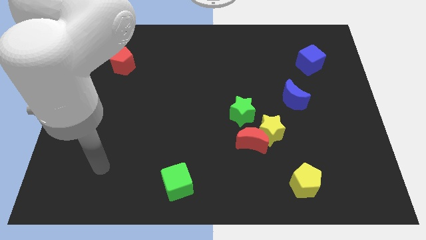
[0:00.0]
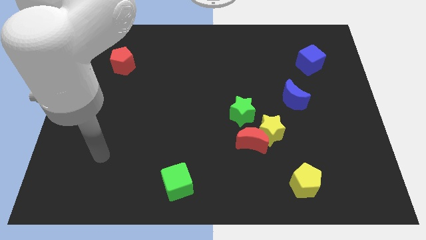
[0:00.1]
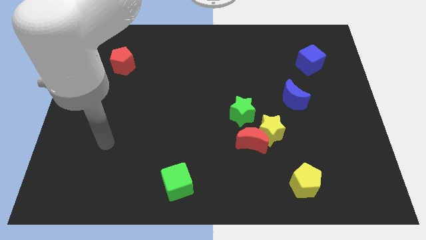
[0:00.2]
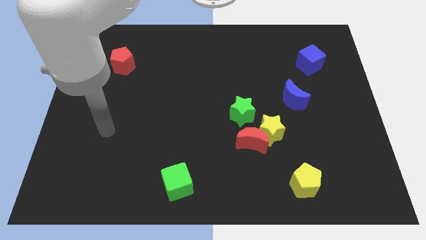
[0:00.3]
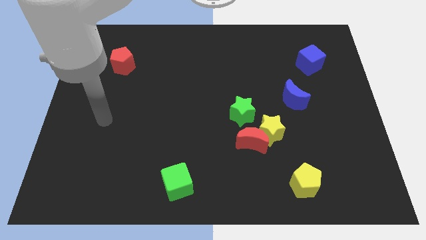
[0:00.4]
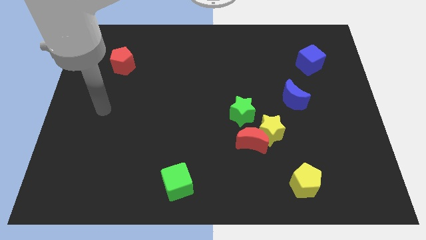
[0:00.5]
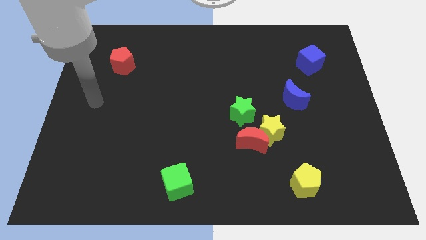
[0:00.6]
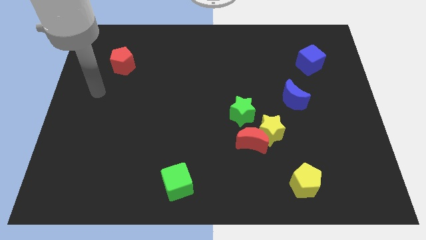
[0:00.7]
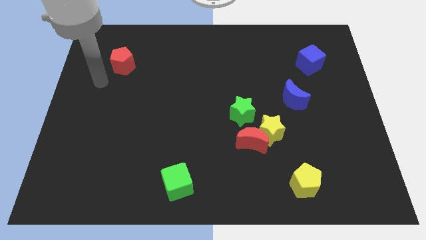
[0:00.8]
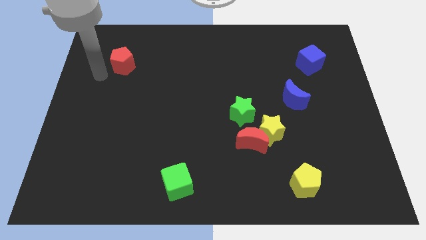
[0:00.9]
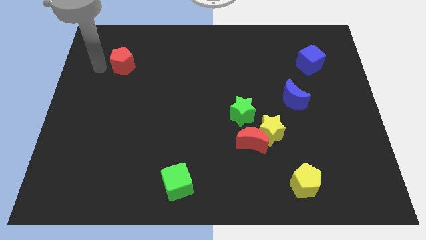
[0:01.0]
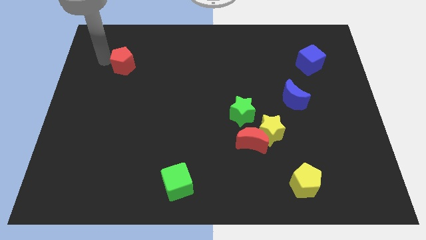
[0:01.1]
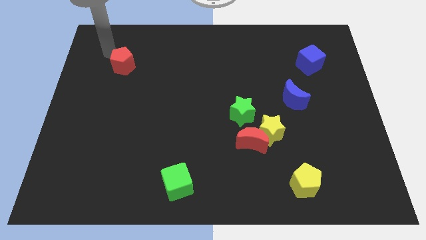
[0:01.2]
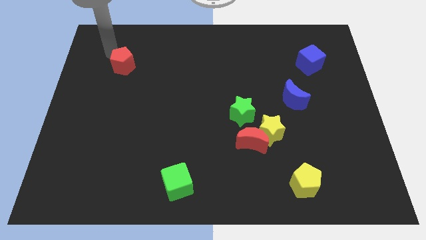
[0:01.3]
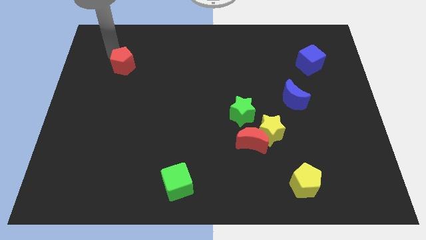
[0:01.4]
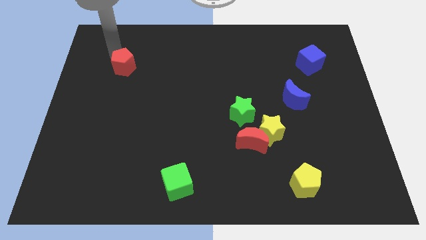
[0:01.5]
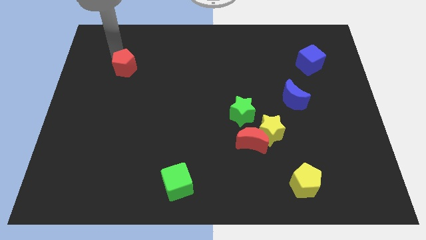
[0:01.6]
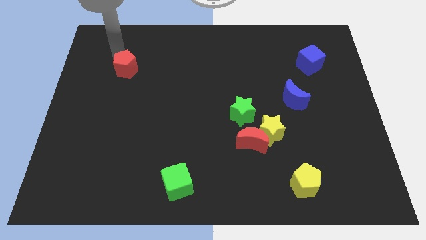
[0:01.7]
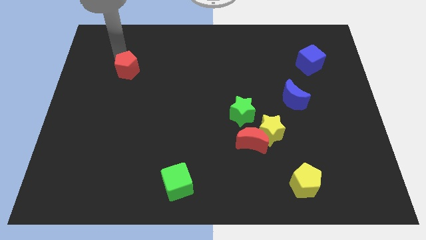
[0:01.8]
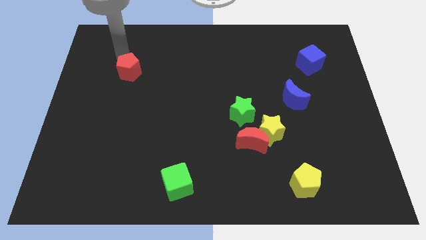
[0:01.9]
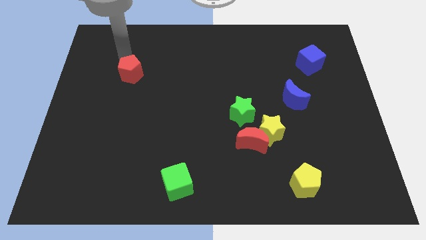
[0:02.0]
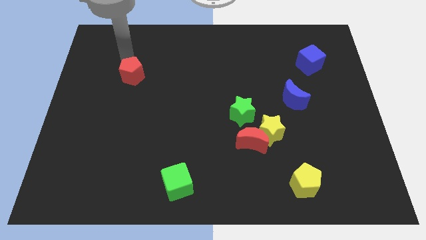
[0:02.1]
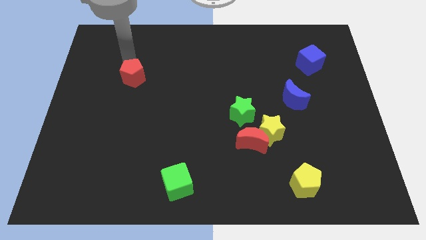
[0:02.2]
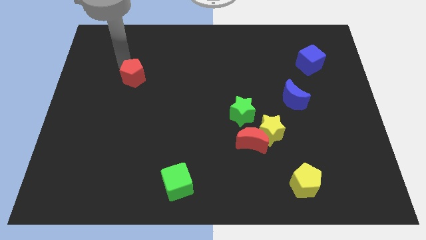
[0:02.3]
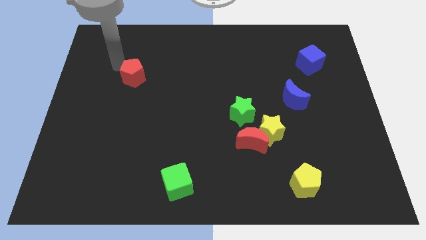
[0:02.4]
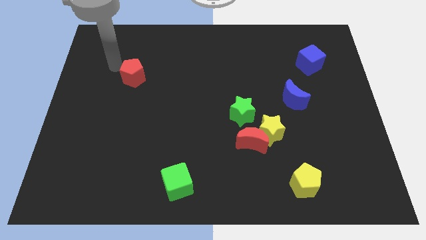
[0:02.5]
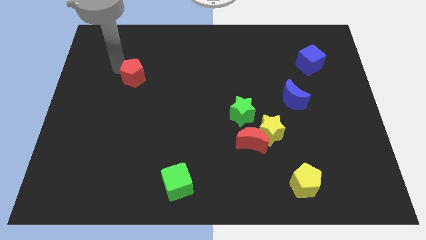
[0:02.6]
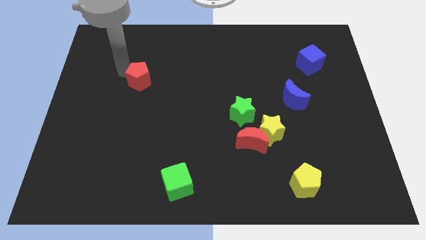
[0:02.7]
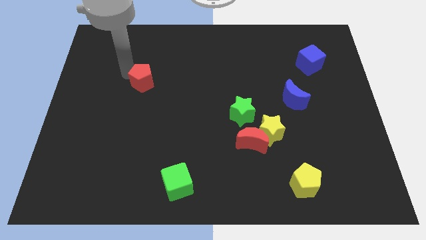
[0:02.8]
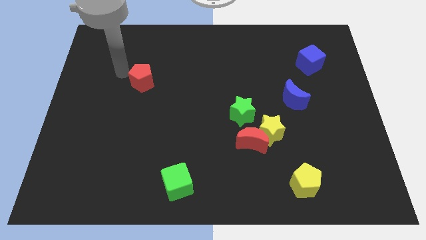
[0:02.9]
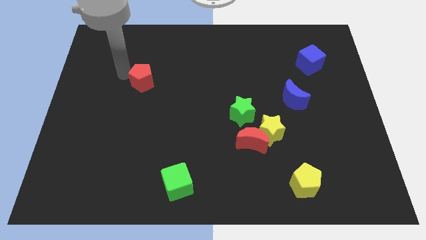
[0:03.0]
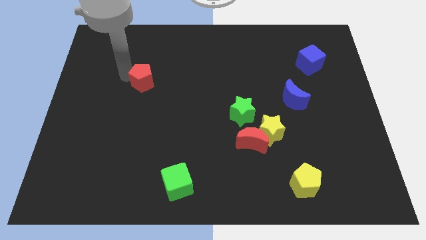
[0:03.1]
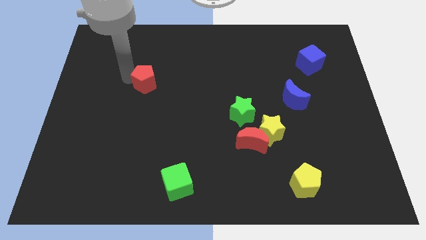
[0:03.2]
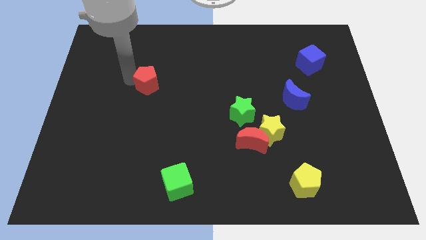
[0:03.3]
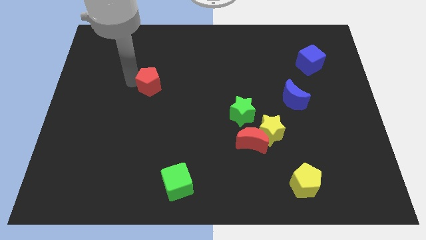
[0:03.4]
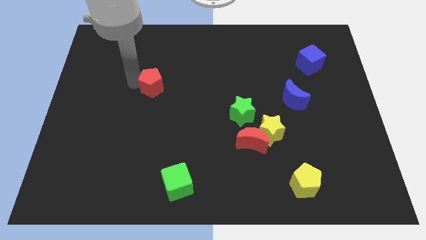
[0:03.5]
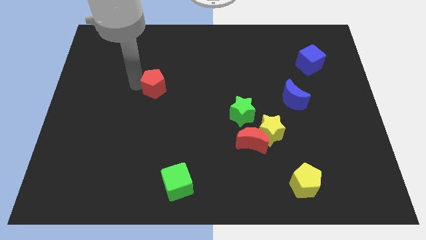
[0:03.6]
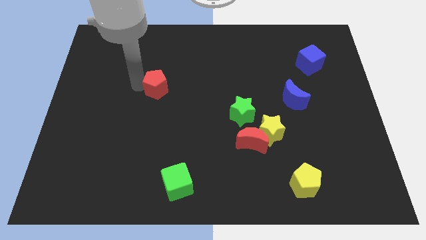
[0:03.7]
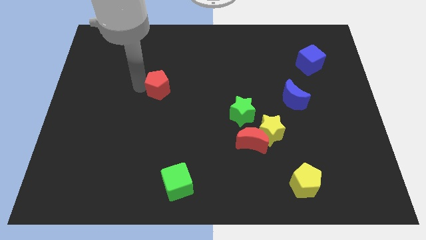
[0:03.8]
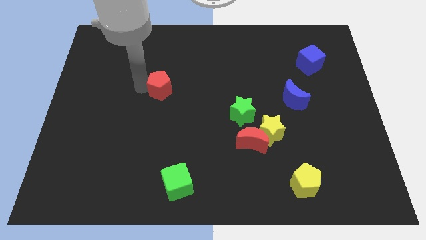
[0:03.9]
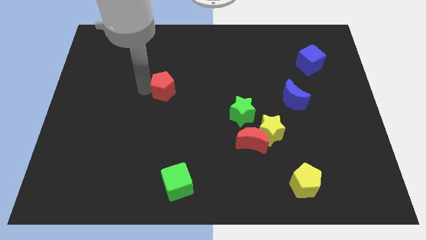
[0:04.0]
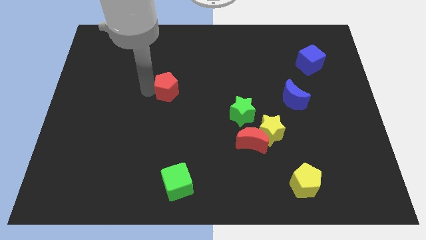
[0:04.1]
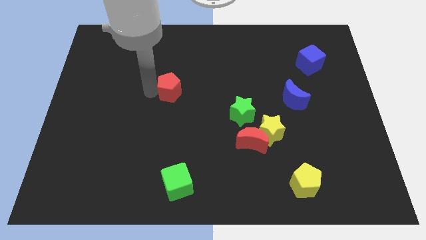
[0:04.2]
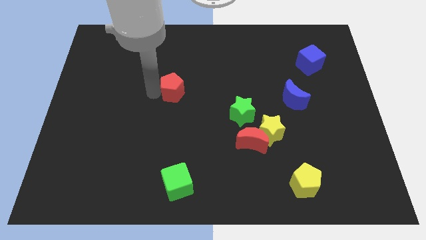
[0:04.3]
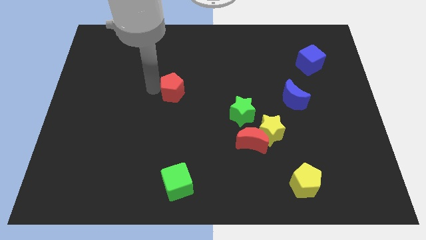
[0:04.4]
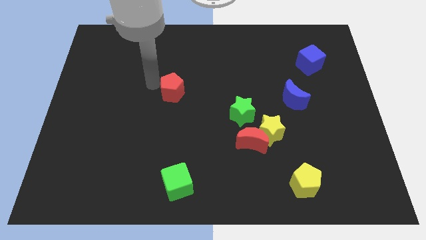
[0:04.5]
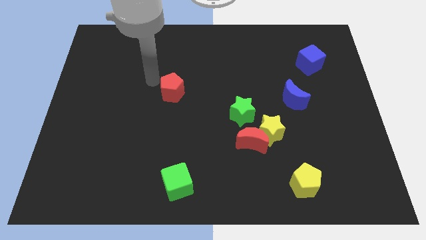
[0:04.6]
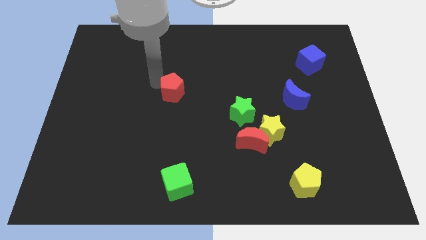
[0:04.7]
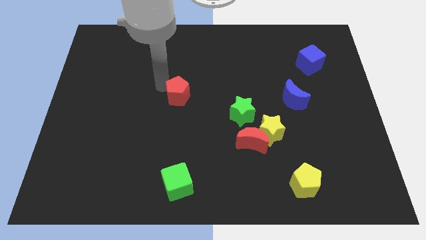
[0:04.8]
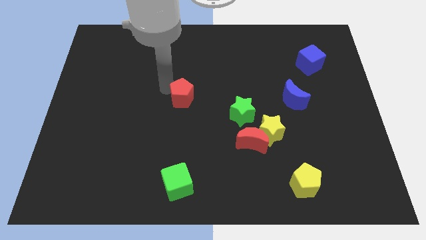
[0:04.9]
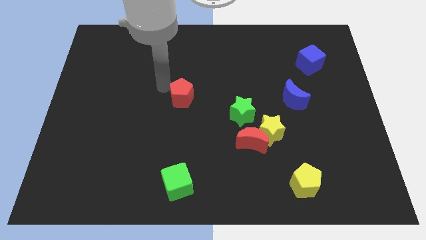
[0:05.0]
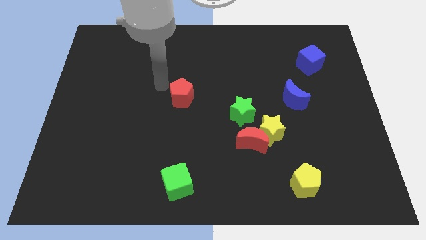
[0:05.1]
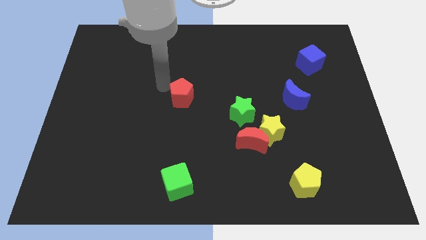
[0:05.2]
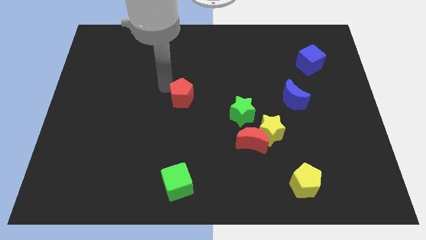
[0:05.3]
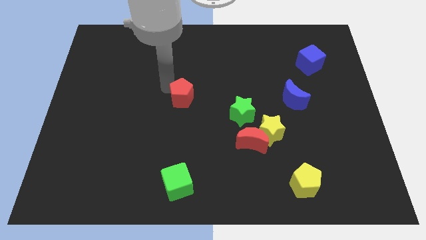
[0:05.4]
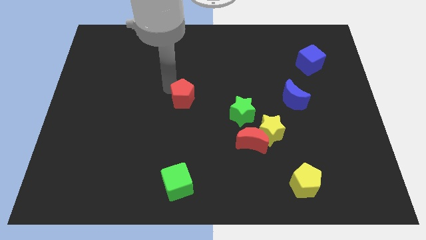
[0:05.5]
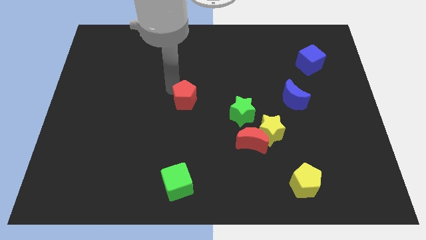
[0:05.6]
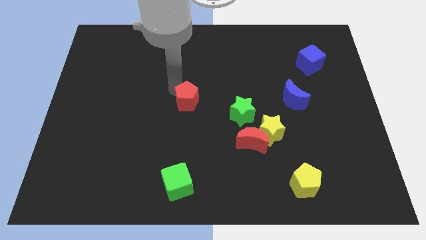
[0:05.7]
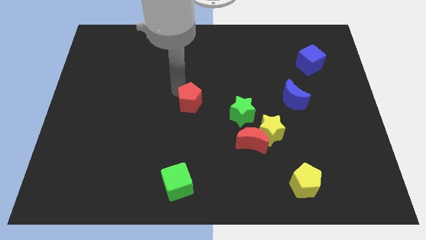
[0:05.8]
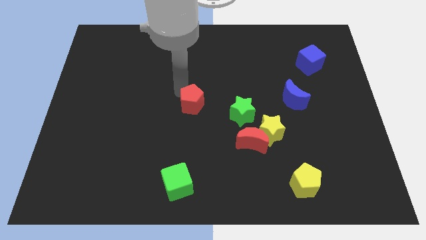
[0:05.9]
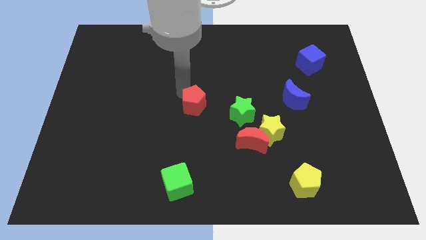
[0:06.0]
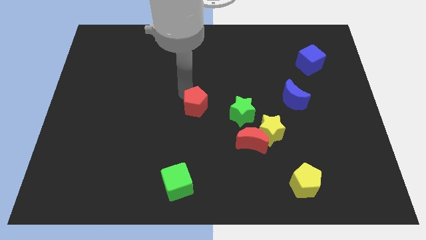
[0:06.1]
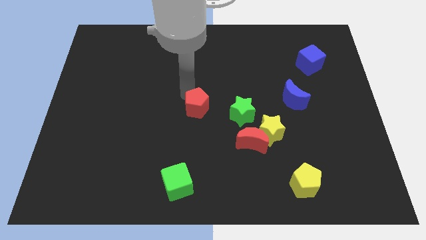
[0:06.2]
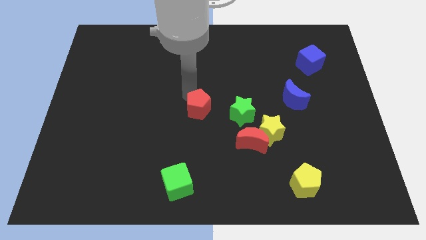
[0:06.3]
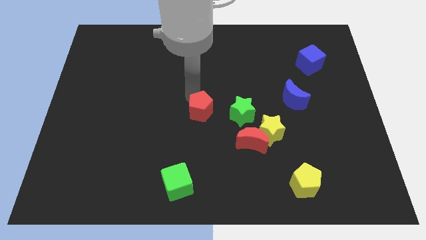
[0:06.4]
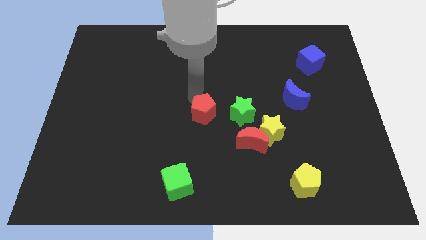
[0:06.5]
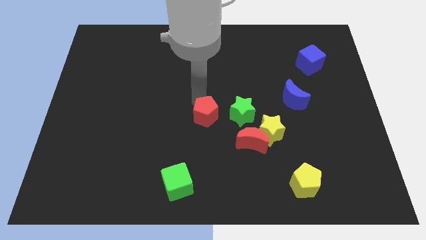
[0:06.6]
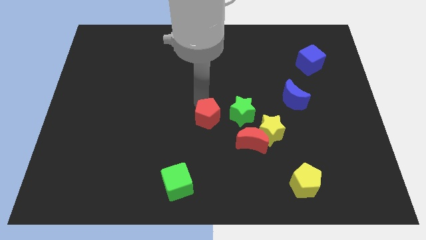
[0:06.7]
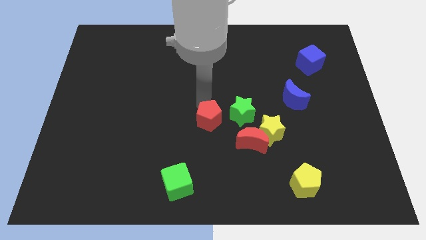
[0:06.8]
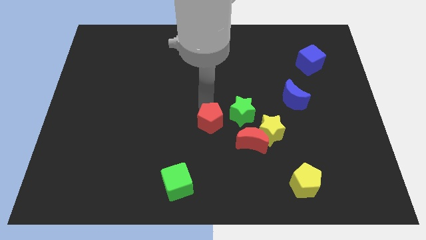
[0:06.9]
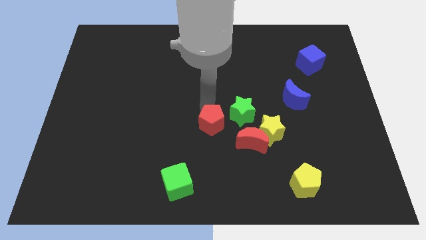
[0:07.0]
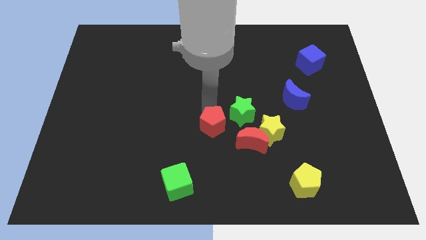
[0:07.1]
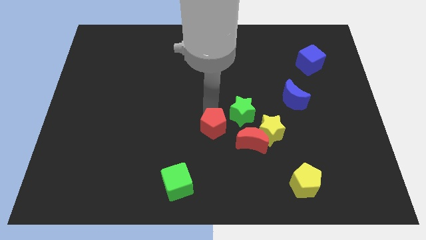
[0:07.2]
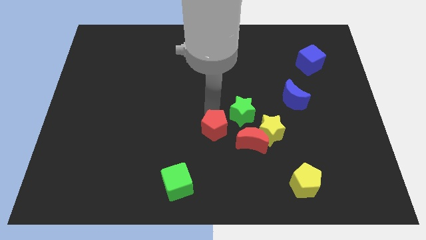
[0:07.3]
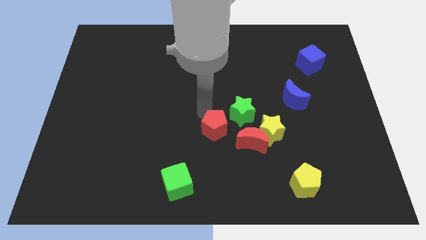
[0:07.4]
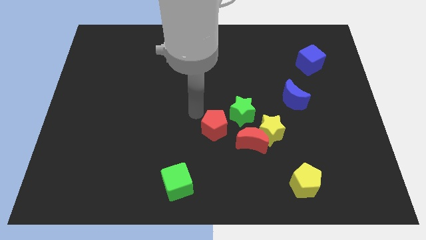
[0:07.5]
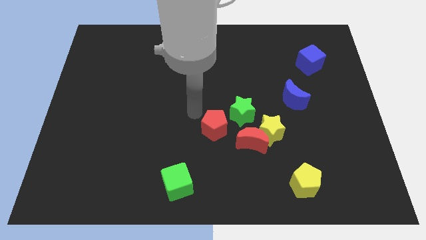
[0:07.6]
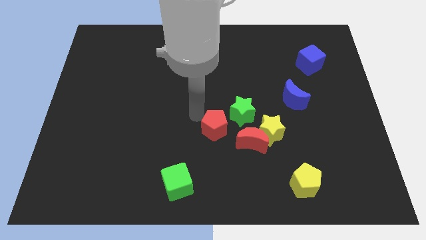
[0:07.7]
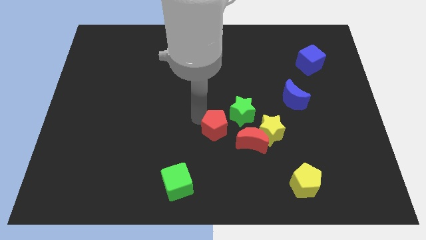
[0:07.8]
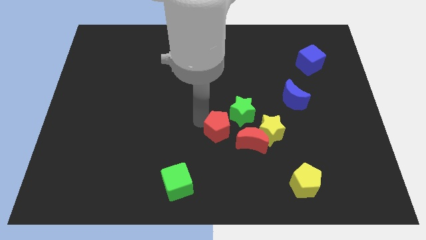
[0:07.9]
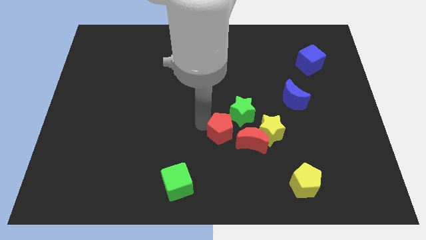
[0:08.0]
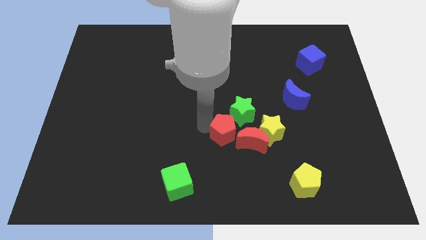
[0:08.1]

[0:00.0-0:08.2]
put the red pentagon to the bottom of the green star
